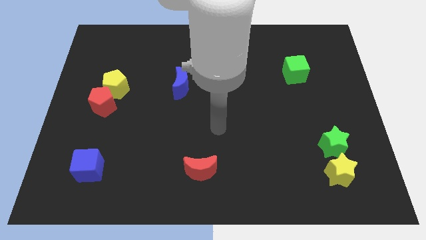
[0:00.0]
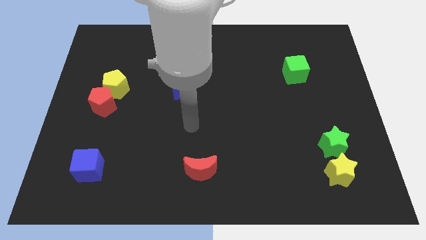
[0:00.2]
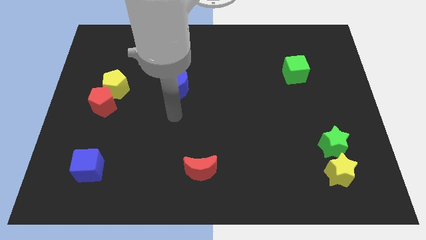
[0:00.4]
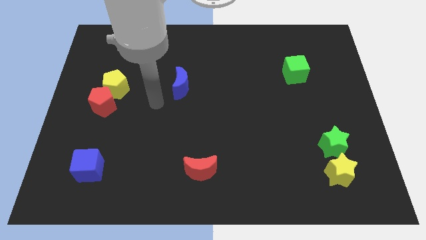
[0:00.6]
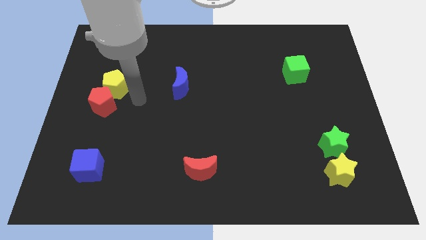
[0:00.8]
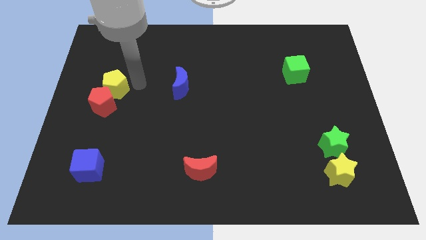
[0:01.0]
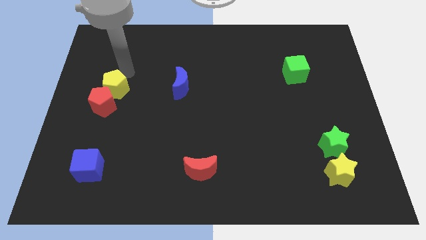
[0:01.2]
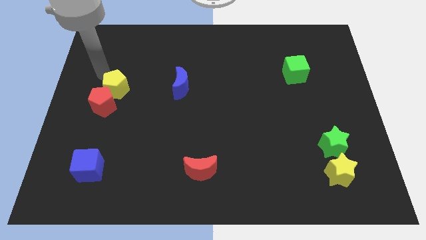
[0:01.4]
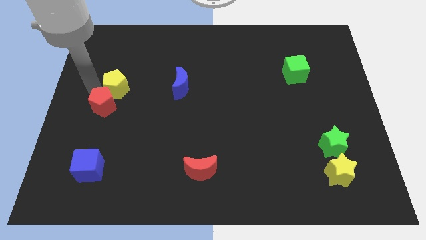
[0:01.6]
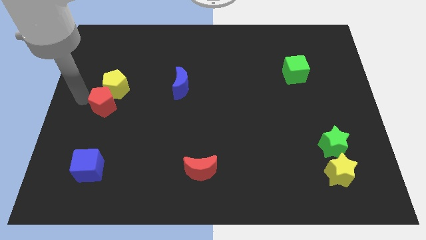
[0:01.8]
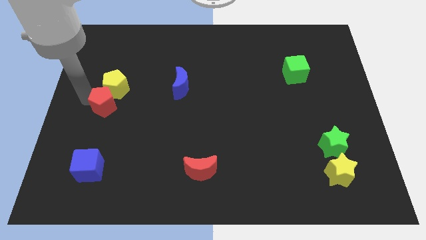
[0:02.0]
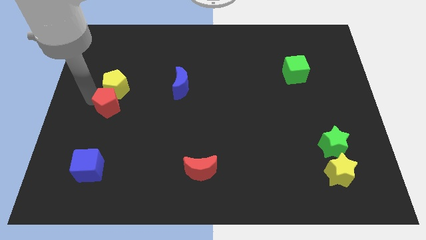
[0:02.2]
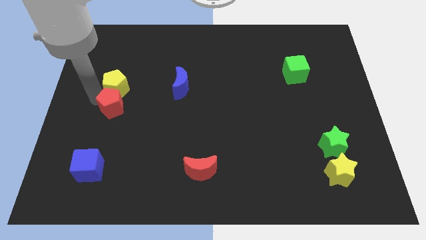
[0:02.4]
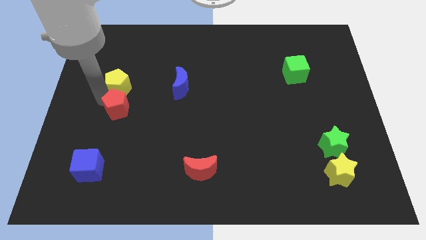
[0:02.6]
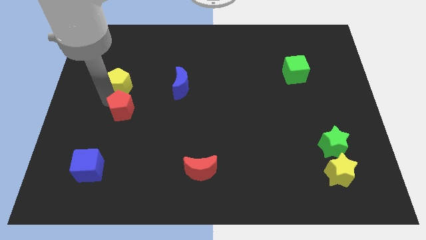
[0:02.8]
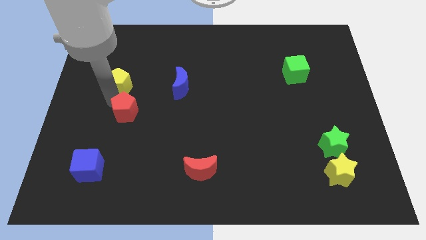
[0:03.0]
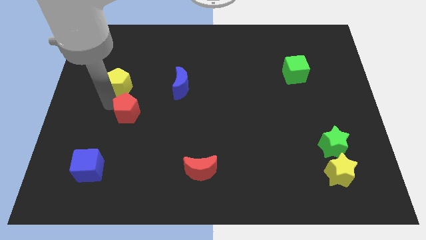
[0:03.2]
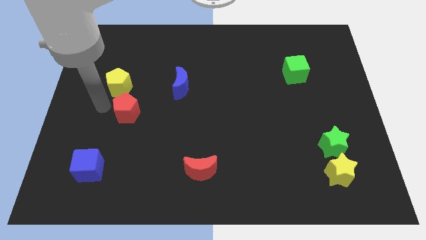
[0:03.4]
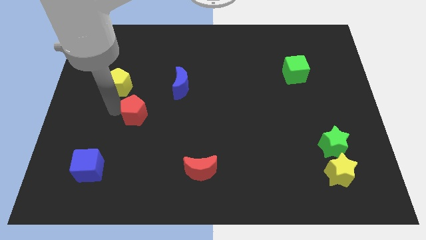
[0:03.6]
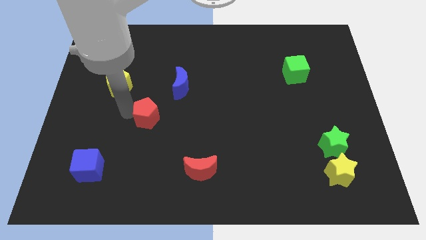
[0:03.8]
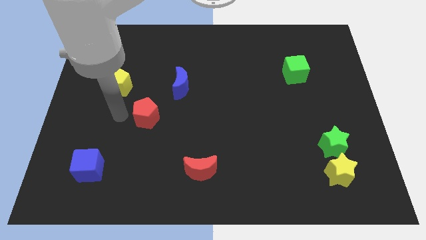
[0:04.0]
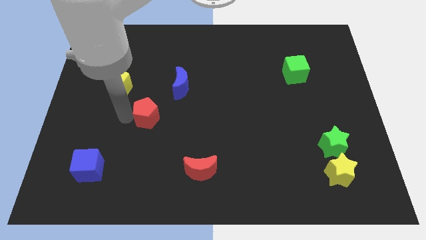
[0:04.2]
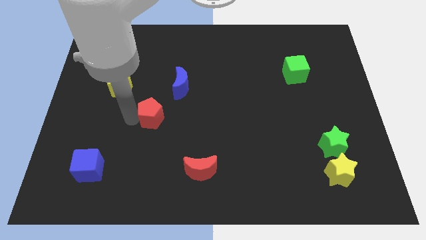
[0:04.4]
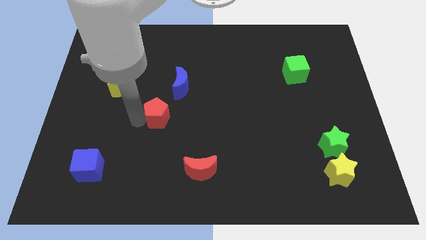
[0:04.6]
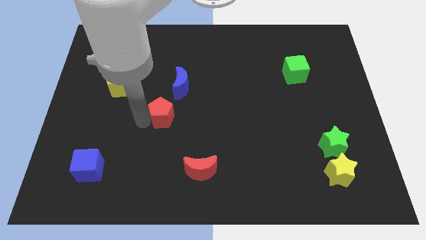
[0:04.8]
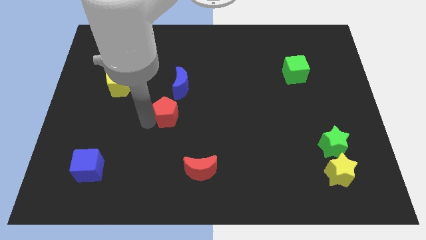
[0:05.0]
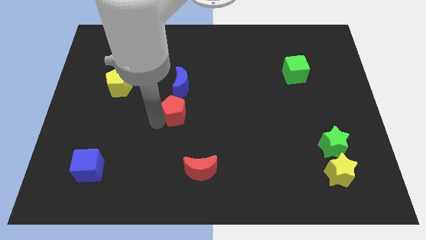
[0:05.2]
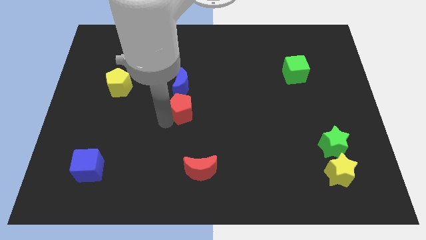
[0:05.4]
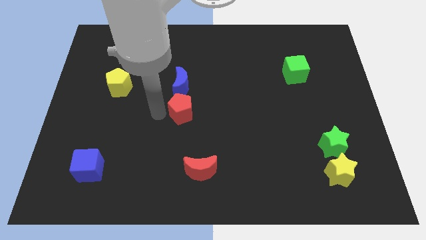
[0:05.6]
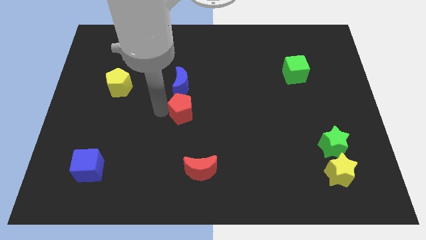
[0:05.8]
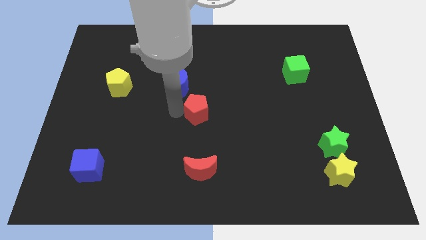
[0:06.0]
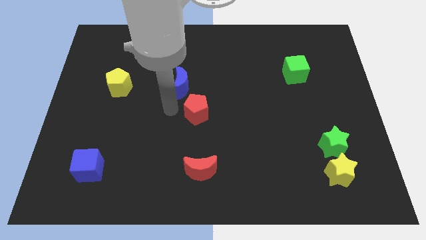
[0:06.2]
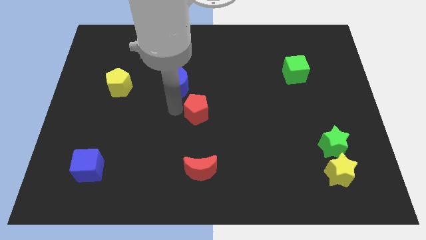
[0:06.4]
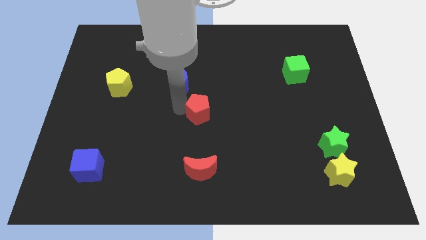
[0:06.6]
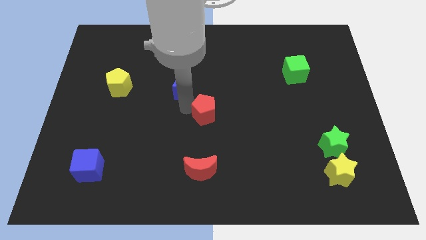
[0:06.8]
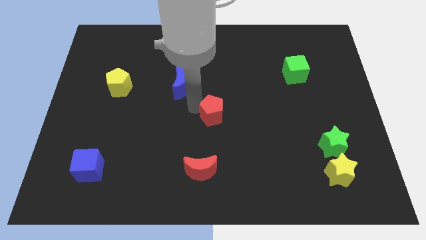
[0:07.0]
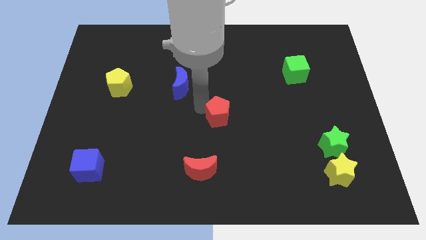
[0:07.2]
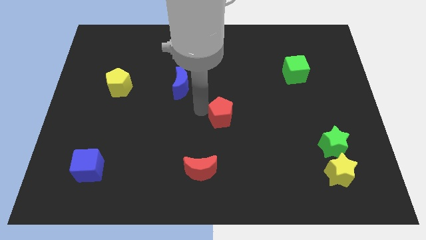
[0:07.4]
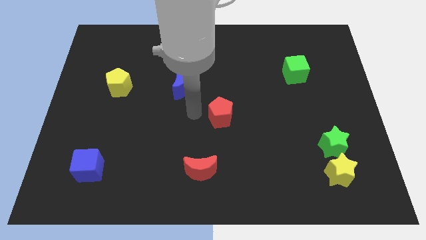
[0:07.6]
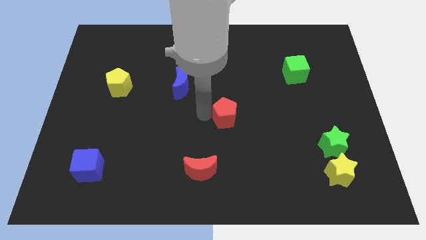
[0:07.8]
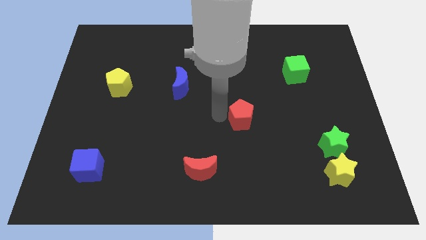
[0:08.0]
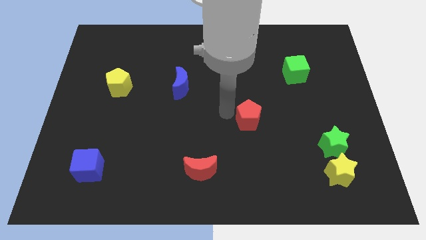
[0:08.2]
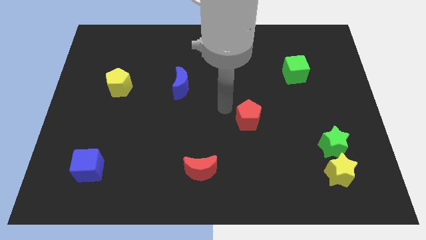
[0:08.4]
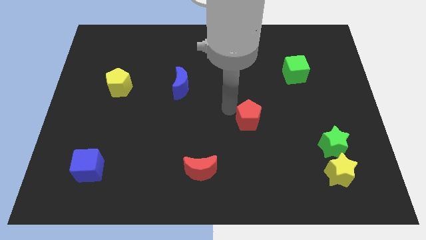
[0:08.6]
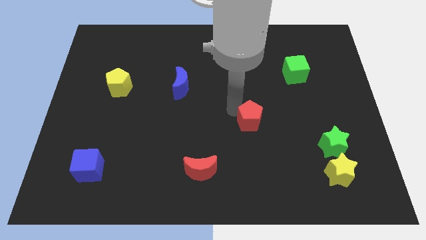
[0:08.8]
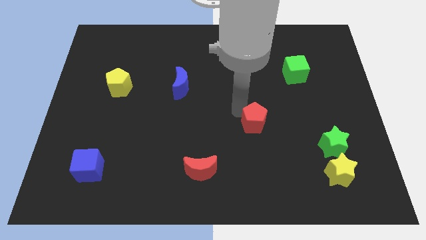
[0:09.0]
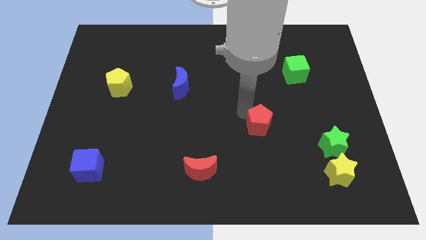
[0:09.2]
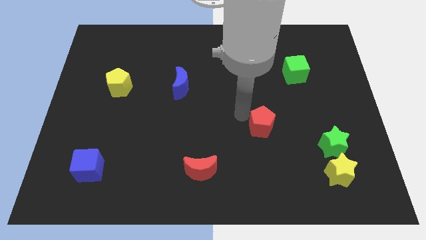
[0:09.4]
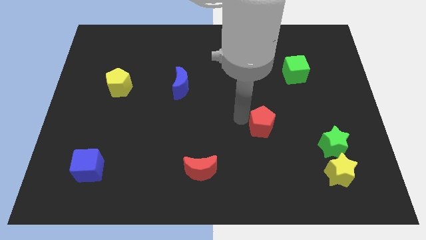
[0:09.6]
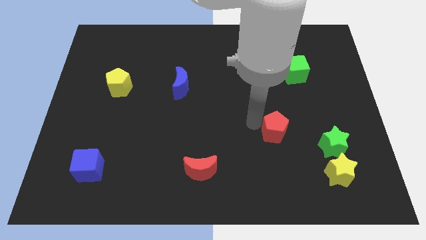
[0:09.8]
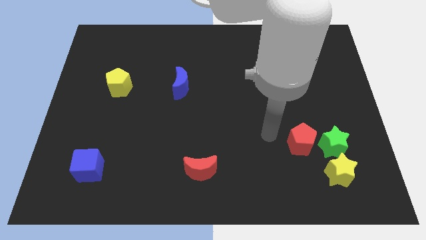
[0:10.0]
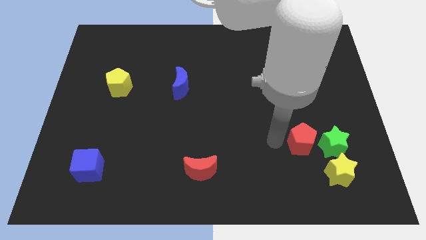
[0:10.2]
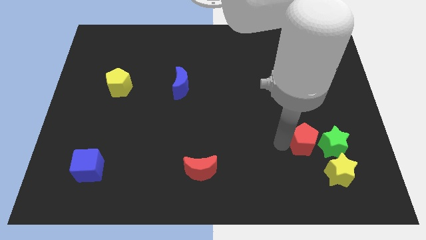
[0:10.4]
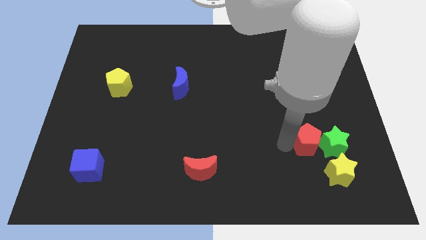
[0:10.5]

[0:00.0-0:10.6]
move the red pentagon to the green star

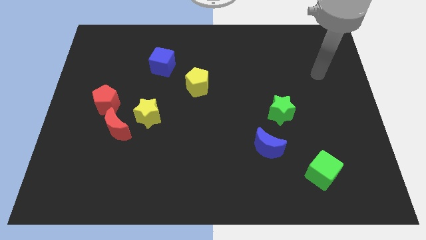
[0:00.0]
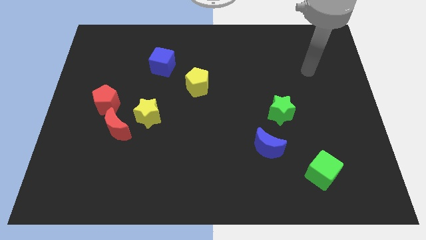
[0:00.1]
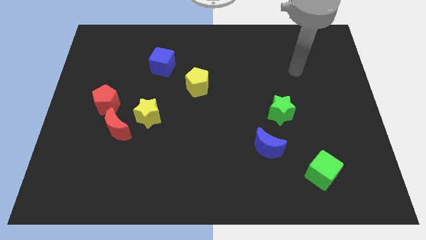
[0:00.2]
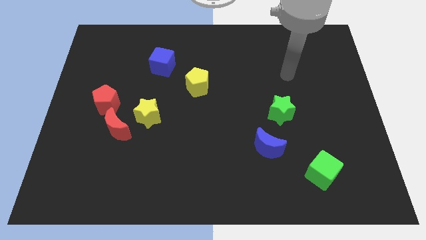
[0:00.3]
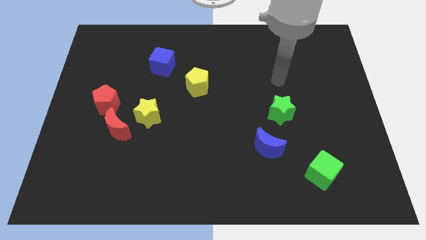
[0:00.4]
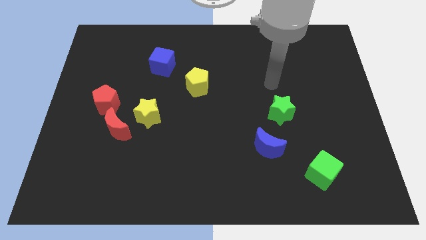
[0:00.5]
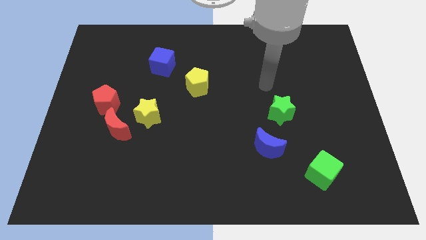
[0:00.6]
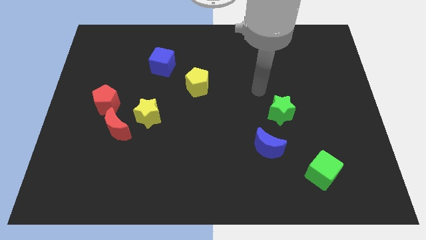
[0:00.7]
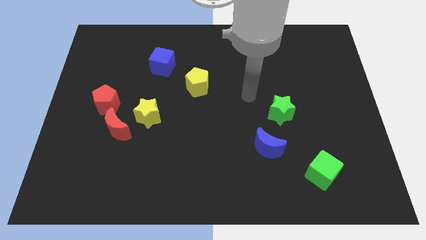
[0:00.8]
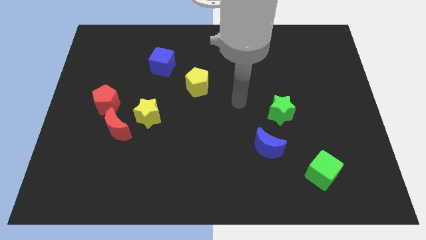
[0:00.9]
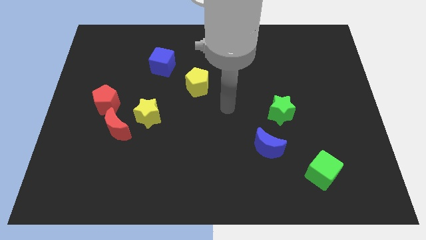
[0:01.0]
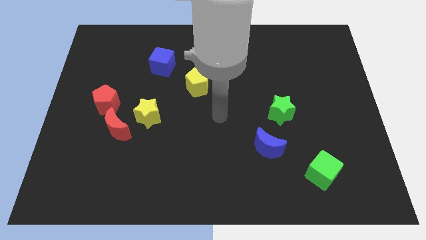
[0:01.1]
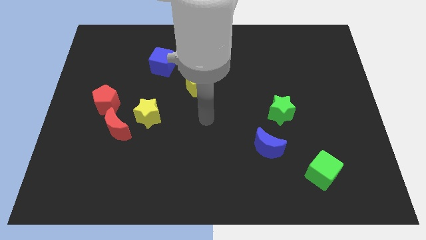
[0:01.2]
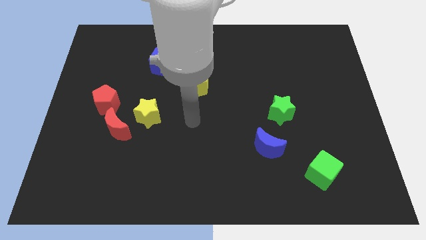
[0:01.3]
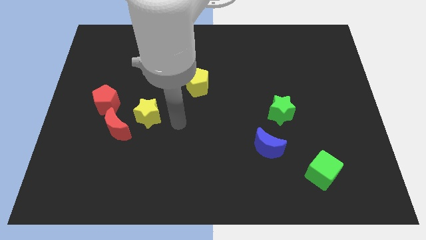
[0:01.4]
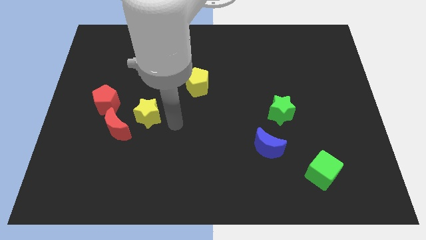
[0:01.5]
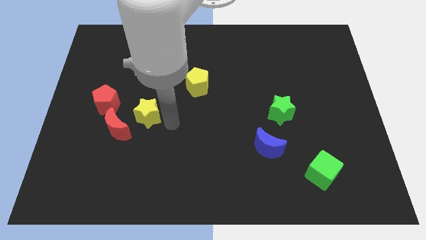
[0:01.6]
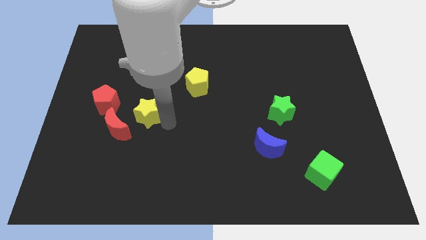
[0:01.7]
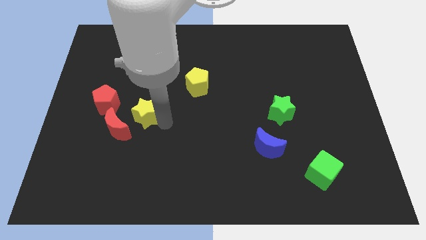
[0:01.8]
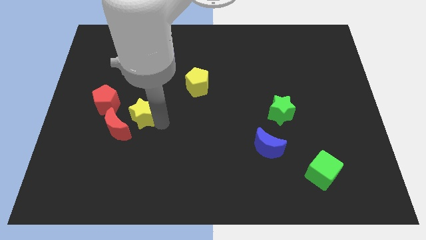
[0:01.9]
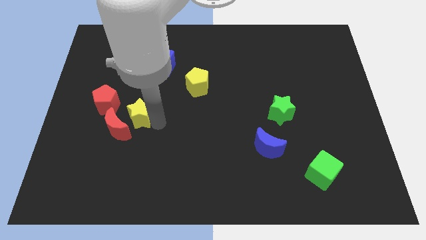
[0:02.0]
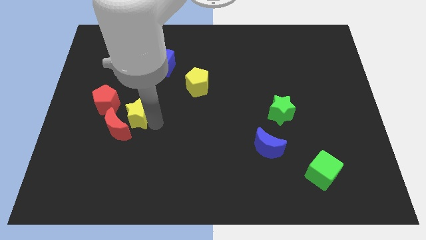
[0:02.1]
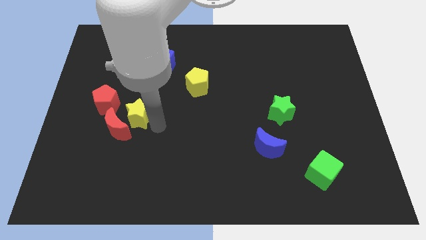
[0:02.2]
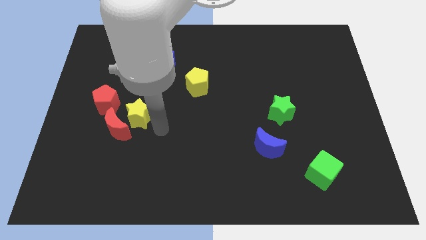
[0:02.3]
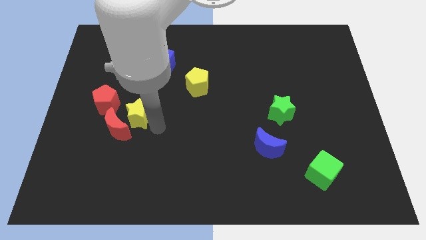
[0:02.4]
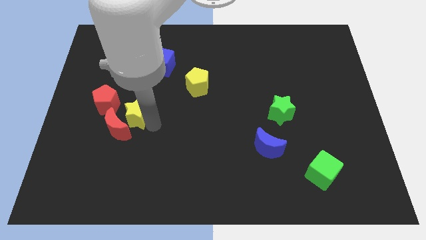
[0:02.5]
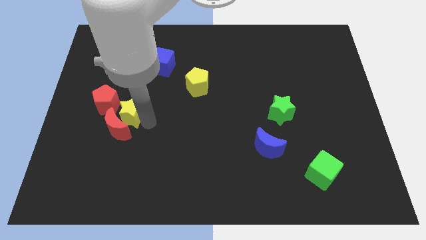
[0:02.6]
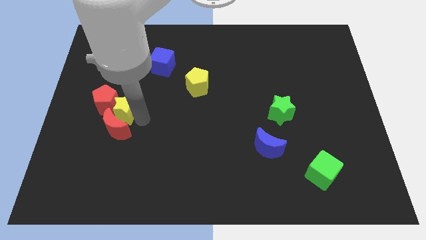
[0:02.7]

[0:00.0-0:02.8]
push the yellow star close to the red pentagon
